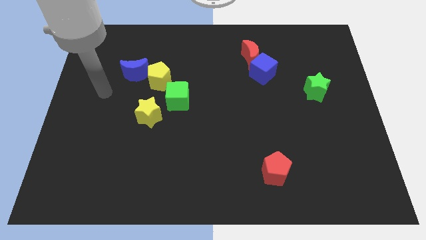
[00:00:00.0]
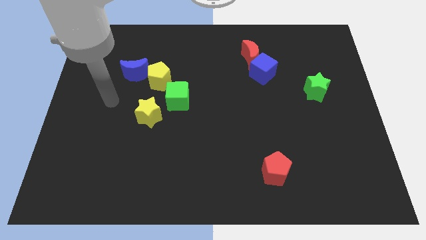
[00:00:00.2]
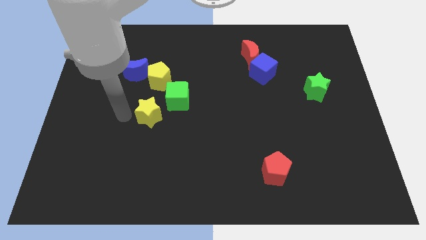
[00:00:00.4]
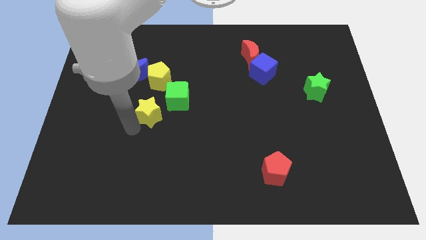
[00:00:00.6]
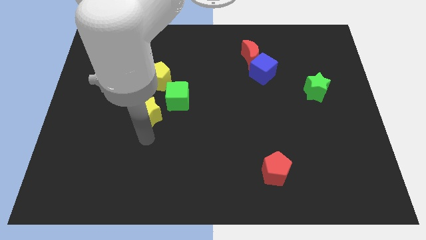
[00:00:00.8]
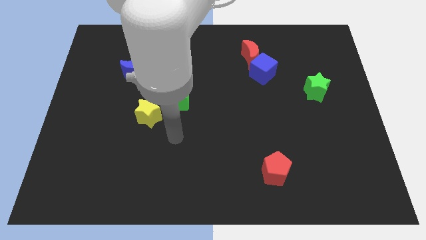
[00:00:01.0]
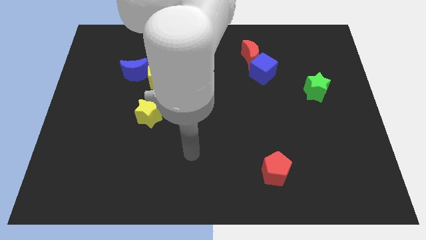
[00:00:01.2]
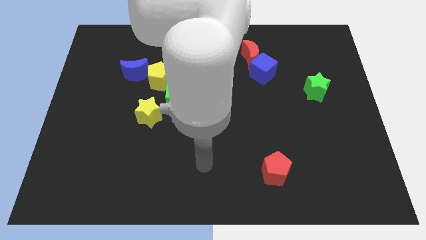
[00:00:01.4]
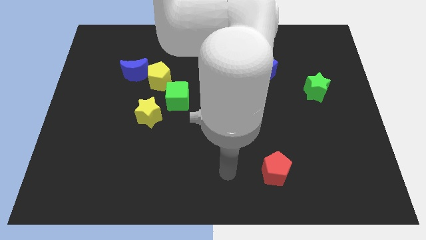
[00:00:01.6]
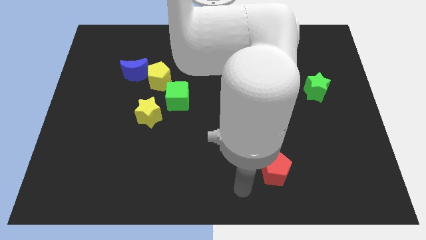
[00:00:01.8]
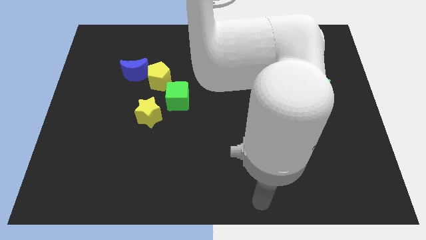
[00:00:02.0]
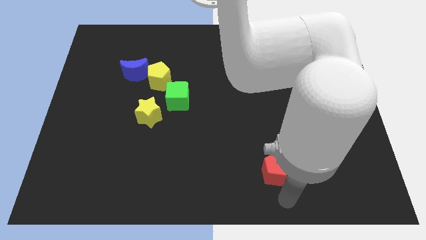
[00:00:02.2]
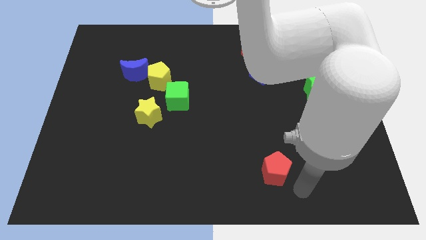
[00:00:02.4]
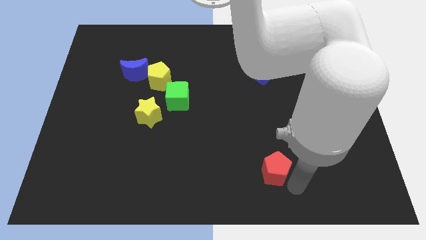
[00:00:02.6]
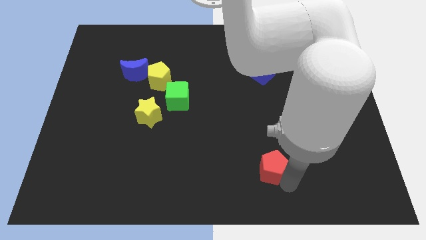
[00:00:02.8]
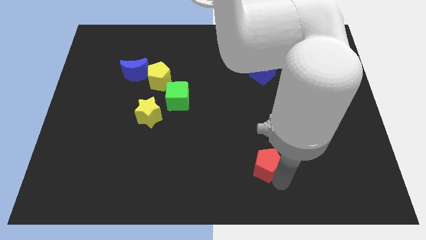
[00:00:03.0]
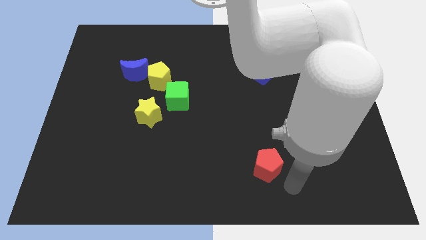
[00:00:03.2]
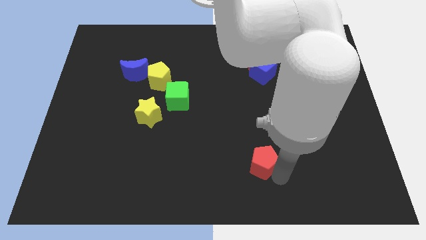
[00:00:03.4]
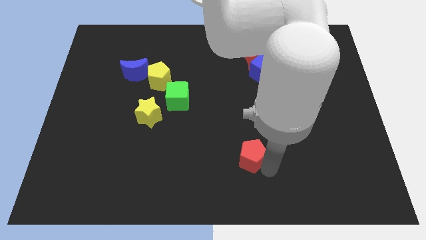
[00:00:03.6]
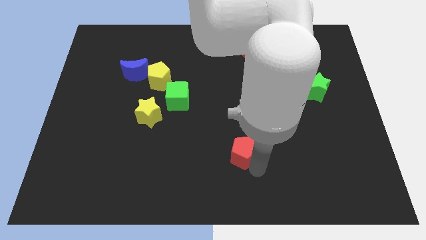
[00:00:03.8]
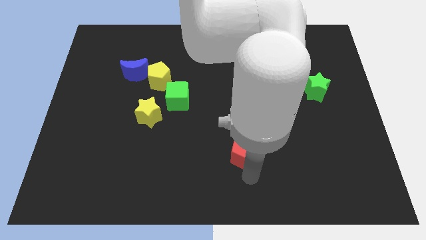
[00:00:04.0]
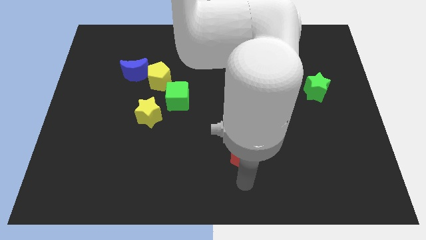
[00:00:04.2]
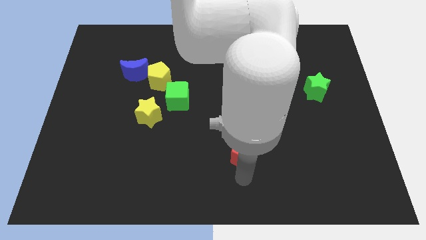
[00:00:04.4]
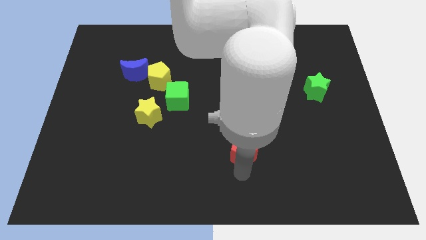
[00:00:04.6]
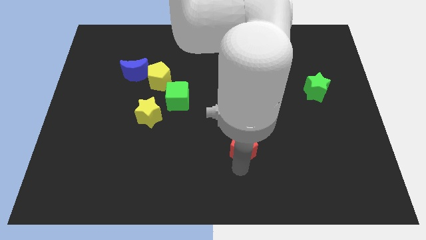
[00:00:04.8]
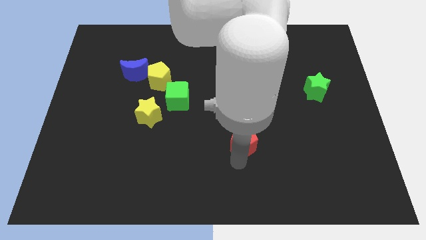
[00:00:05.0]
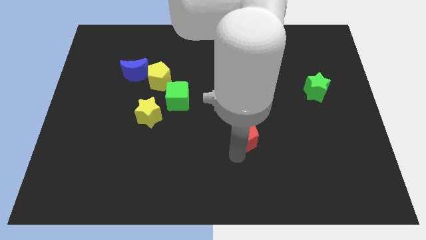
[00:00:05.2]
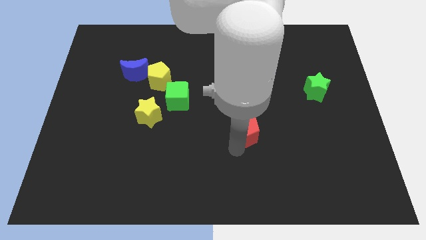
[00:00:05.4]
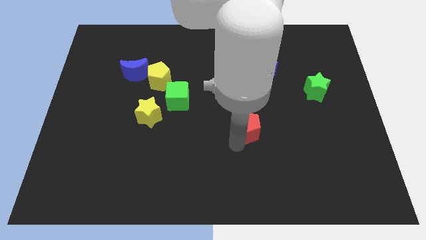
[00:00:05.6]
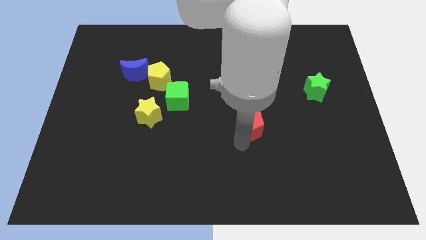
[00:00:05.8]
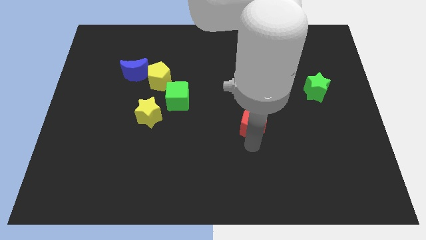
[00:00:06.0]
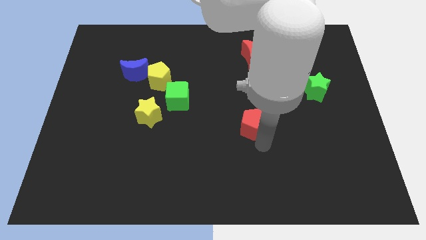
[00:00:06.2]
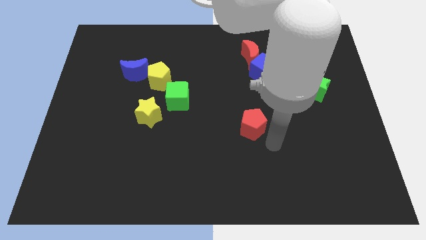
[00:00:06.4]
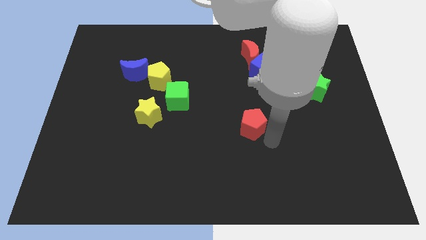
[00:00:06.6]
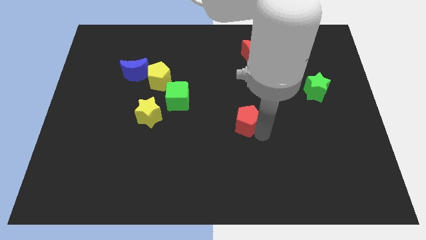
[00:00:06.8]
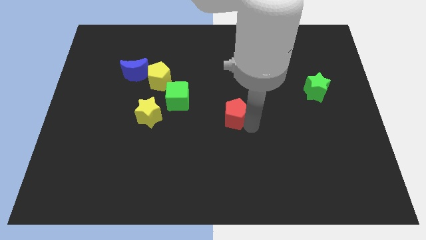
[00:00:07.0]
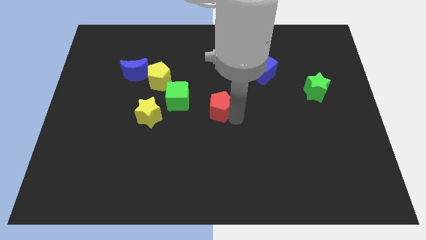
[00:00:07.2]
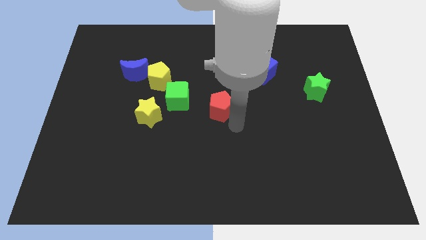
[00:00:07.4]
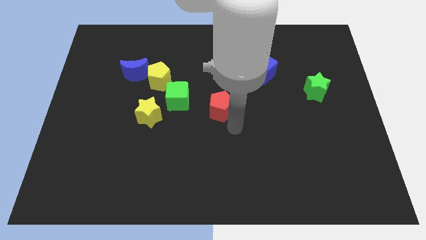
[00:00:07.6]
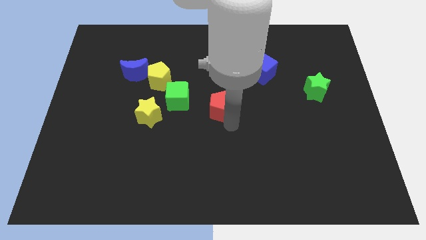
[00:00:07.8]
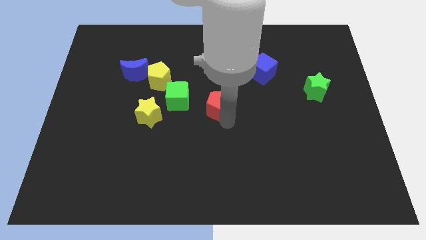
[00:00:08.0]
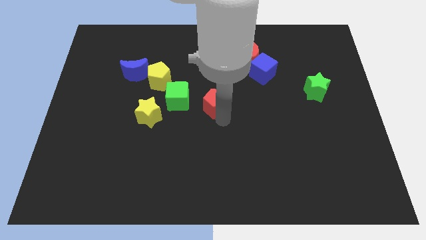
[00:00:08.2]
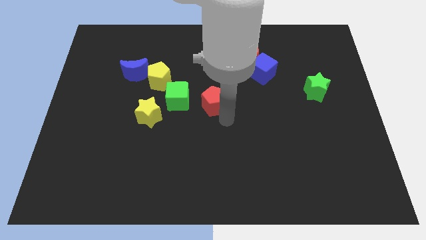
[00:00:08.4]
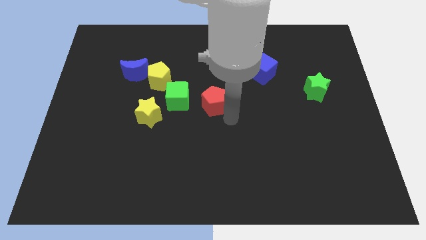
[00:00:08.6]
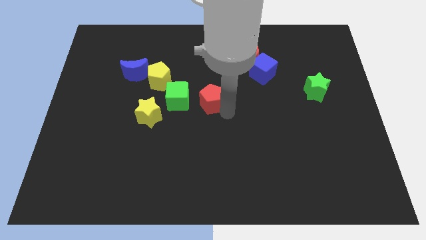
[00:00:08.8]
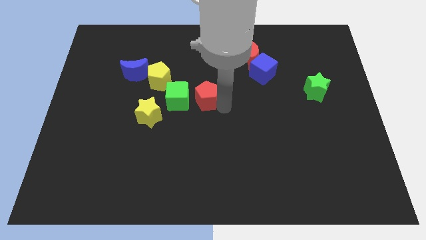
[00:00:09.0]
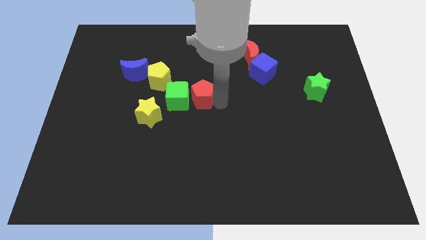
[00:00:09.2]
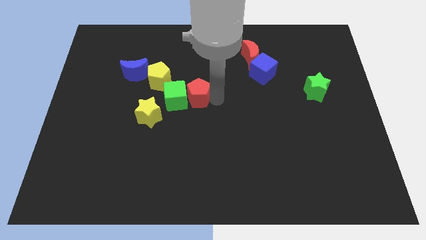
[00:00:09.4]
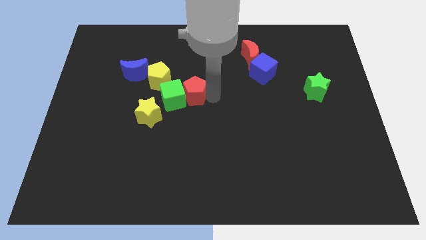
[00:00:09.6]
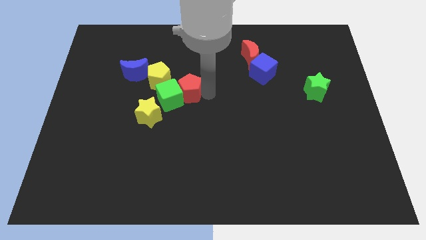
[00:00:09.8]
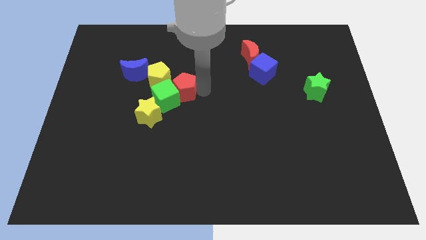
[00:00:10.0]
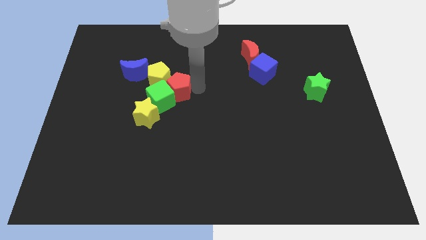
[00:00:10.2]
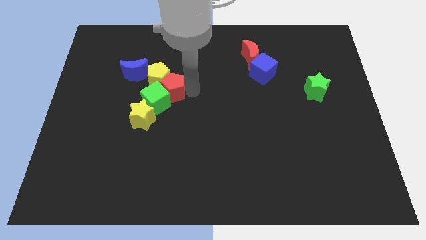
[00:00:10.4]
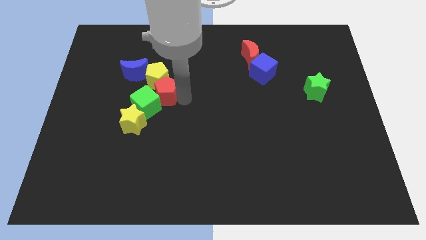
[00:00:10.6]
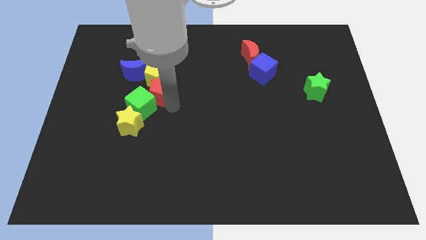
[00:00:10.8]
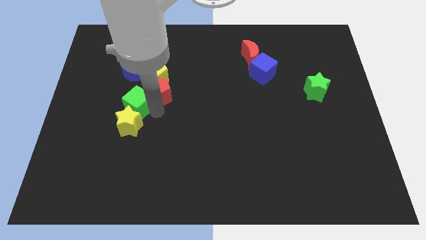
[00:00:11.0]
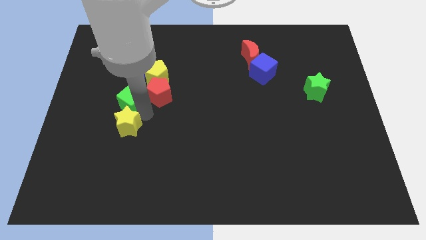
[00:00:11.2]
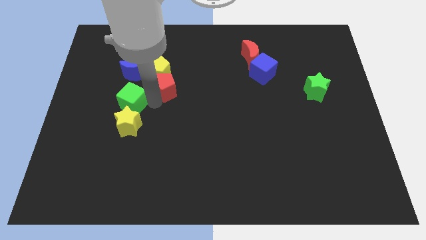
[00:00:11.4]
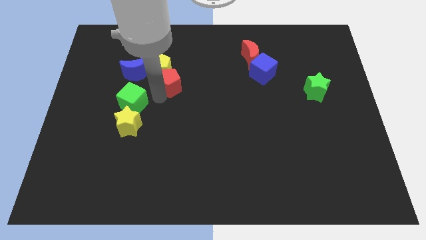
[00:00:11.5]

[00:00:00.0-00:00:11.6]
slide the red pentagon just right of the blue moon
